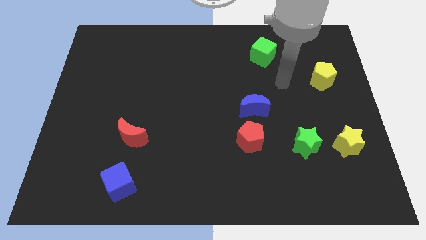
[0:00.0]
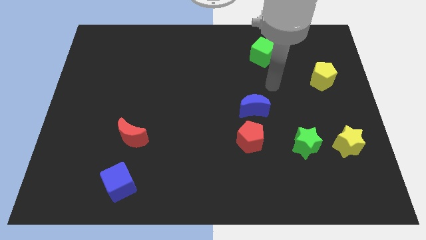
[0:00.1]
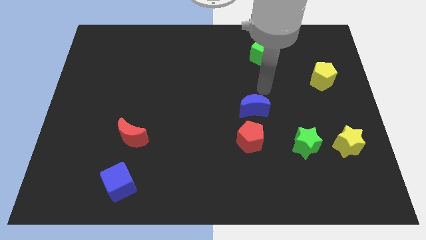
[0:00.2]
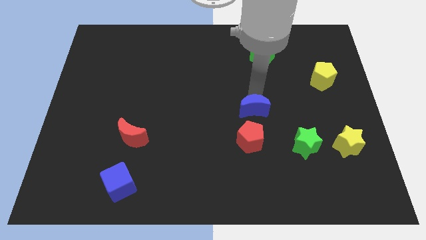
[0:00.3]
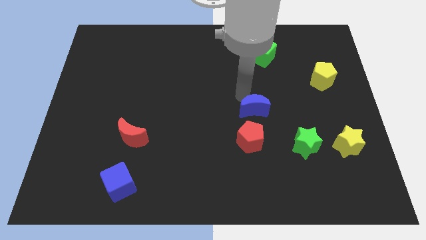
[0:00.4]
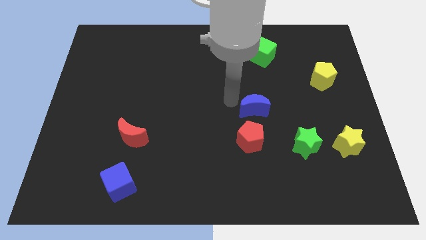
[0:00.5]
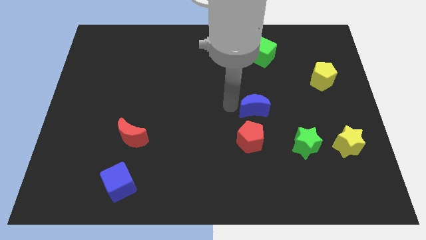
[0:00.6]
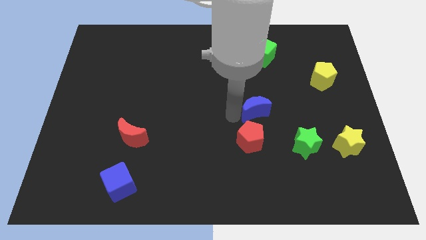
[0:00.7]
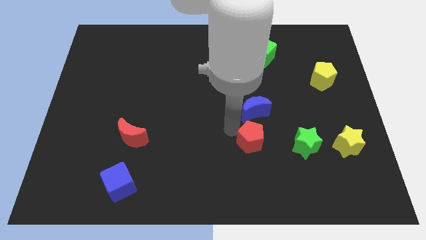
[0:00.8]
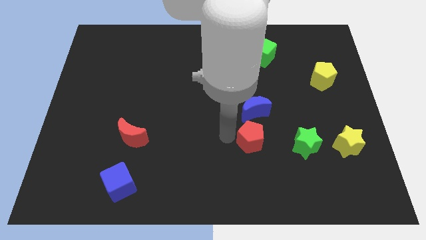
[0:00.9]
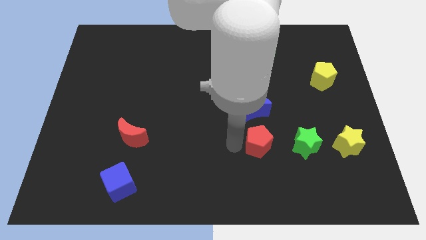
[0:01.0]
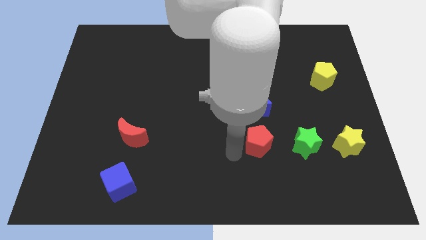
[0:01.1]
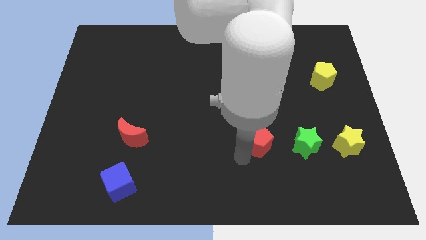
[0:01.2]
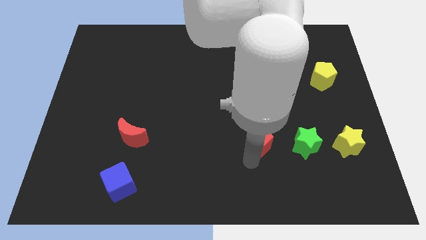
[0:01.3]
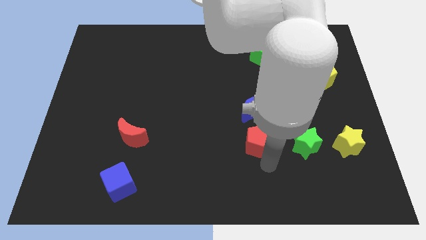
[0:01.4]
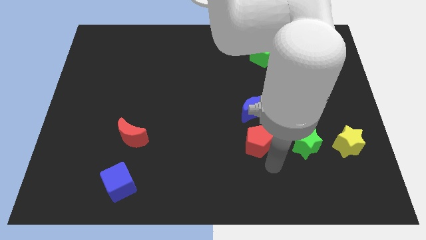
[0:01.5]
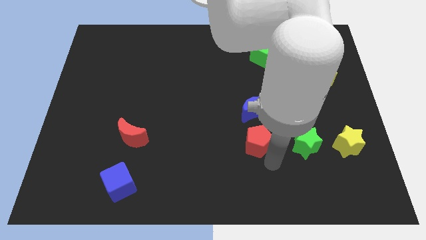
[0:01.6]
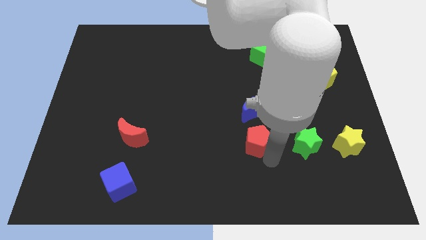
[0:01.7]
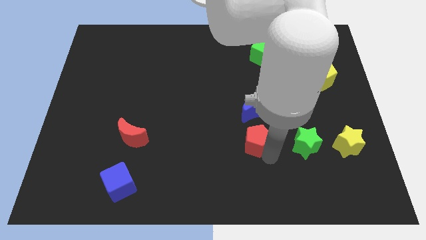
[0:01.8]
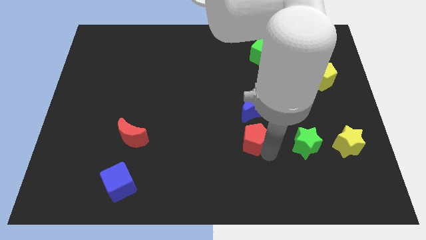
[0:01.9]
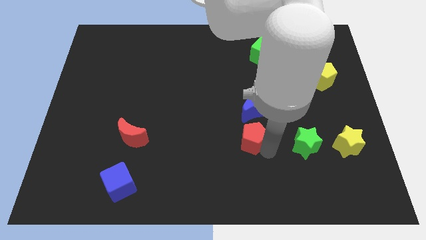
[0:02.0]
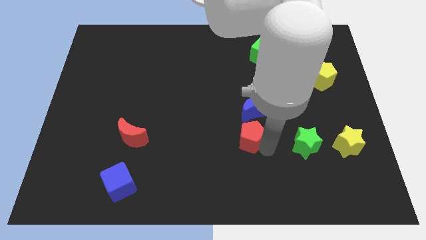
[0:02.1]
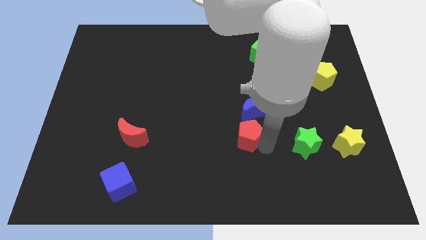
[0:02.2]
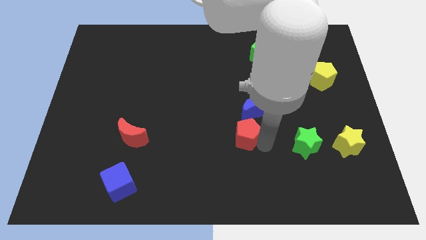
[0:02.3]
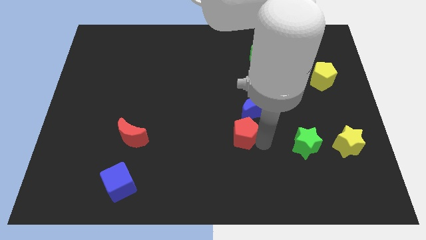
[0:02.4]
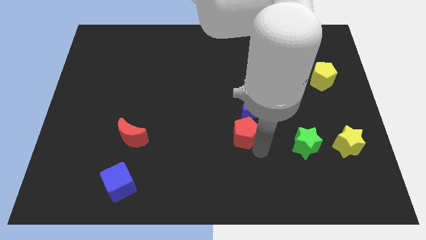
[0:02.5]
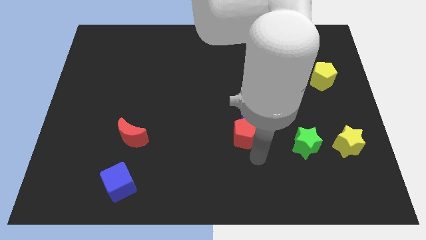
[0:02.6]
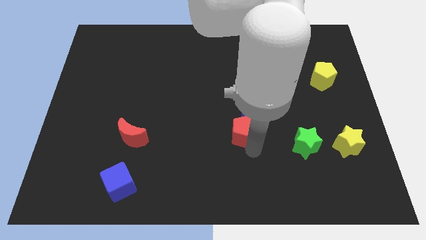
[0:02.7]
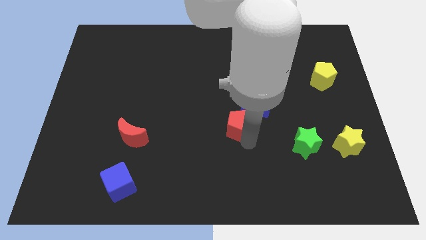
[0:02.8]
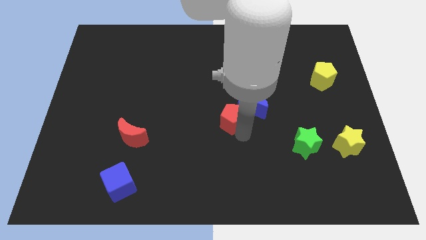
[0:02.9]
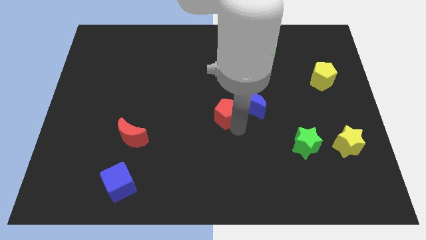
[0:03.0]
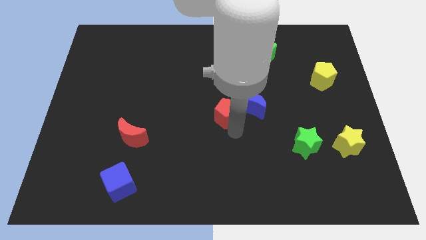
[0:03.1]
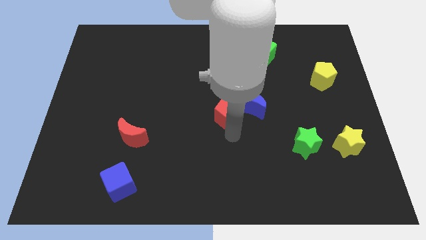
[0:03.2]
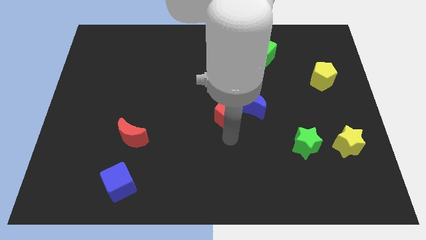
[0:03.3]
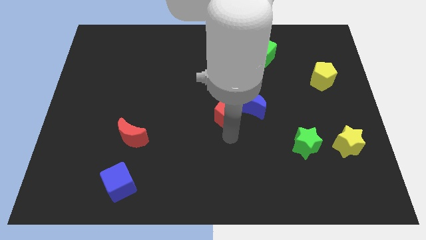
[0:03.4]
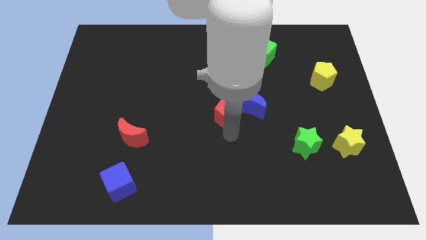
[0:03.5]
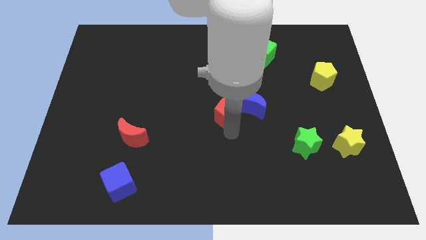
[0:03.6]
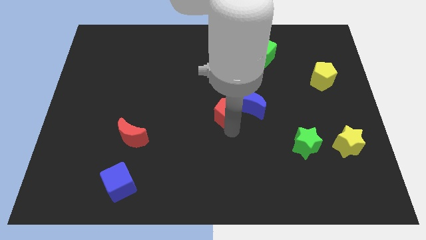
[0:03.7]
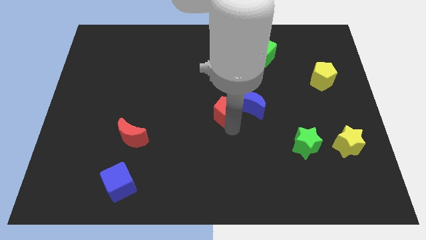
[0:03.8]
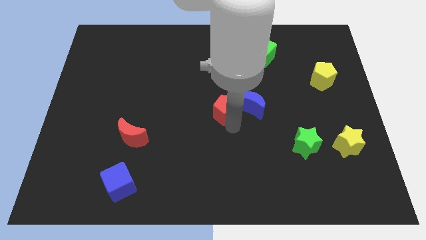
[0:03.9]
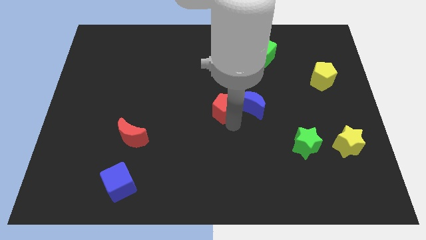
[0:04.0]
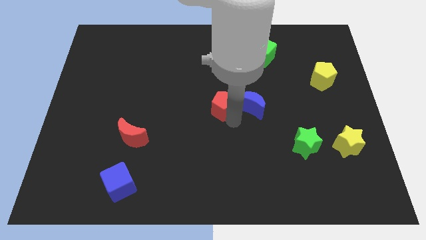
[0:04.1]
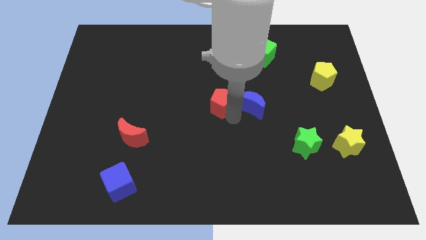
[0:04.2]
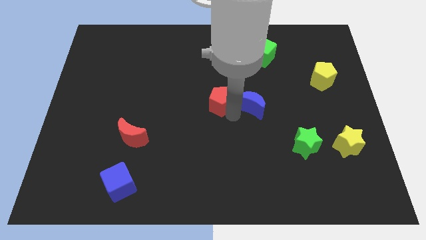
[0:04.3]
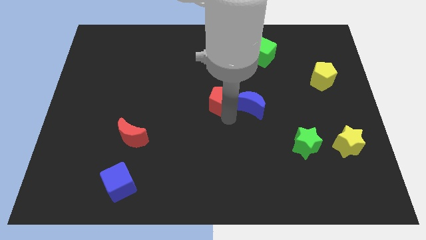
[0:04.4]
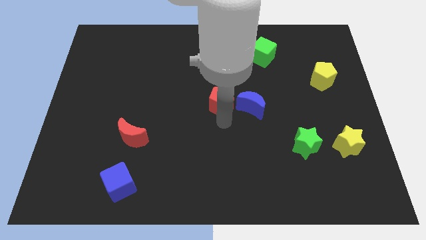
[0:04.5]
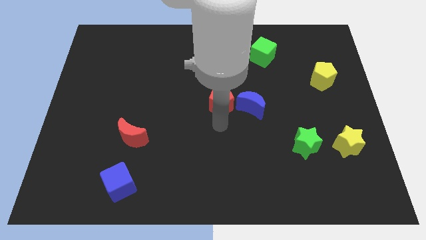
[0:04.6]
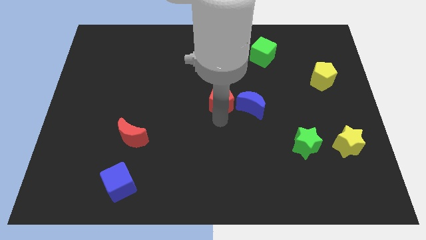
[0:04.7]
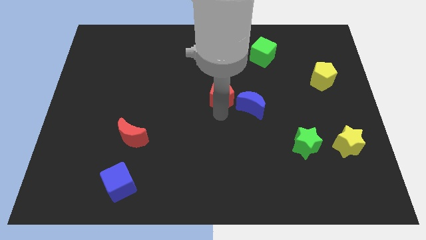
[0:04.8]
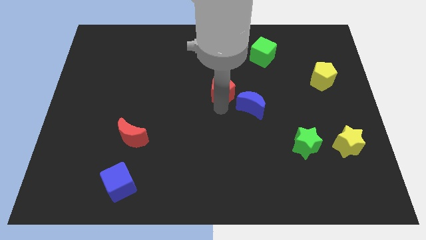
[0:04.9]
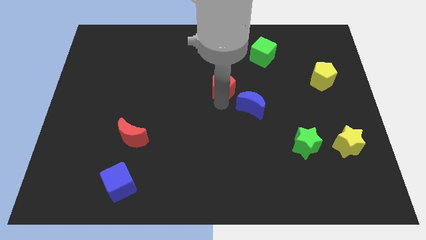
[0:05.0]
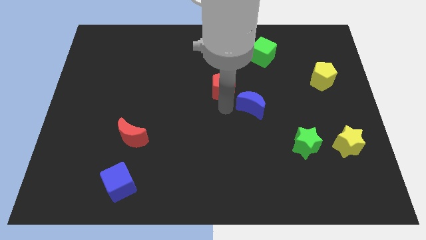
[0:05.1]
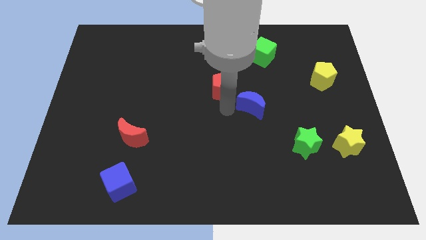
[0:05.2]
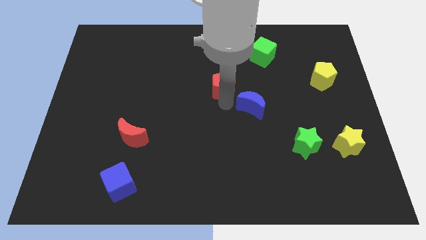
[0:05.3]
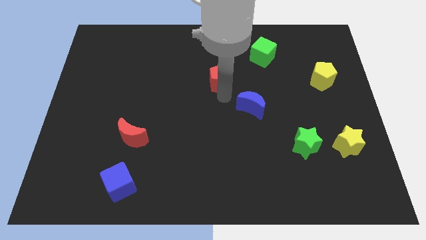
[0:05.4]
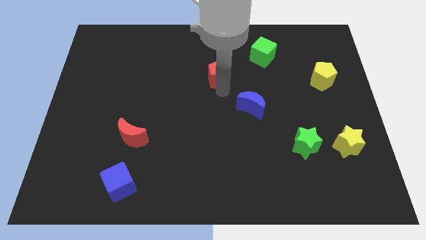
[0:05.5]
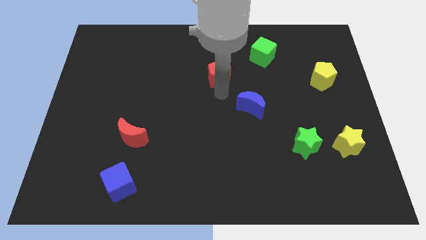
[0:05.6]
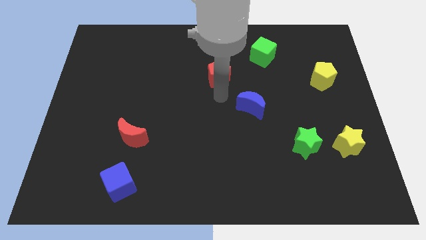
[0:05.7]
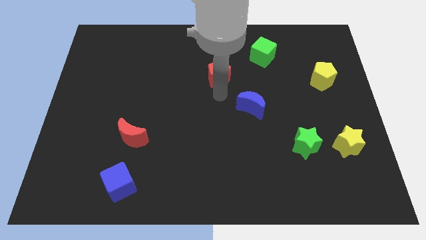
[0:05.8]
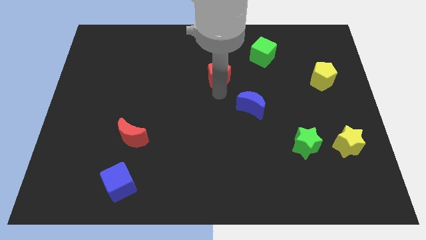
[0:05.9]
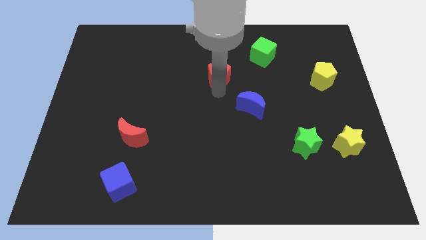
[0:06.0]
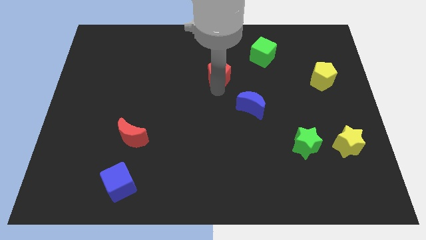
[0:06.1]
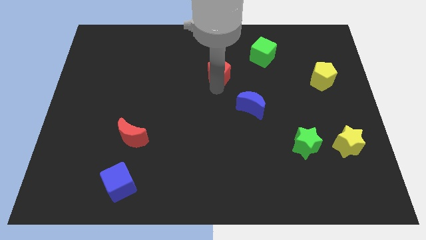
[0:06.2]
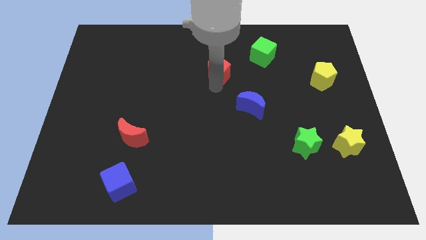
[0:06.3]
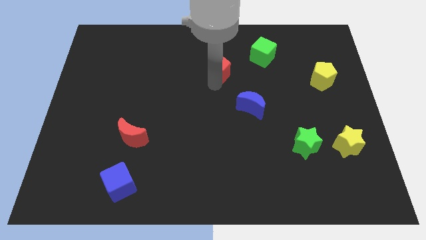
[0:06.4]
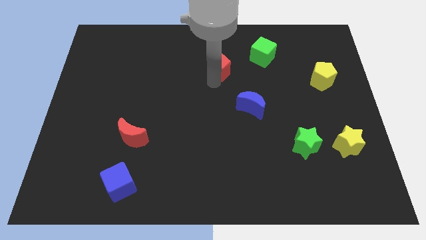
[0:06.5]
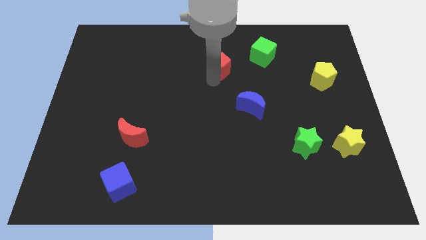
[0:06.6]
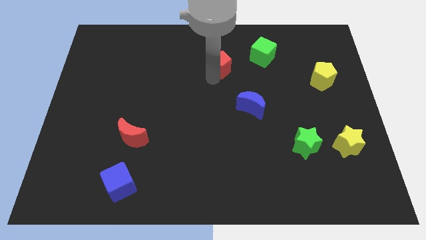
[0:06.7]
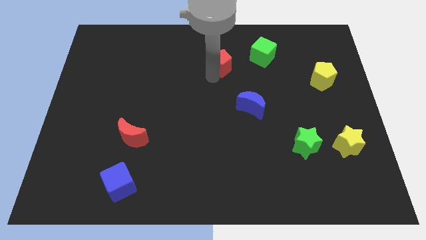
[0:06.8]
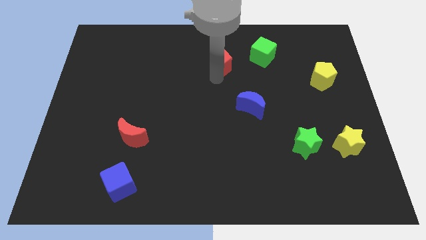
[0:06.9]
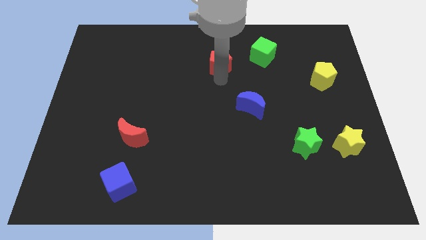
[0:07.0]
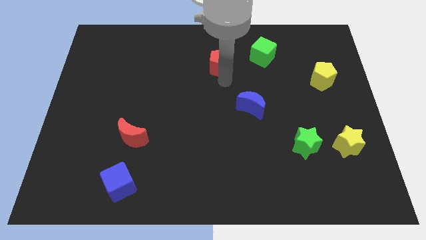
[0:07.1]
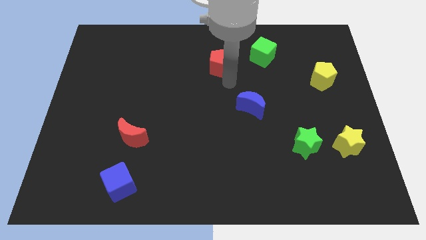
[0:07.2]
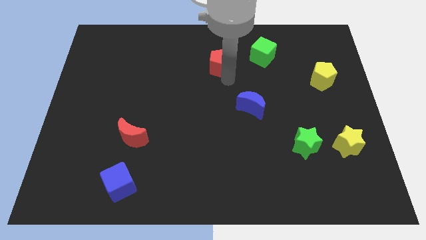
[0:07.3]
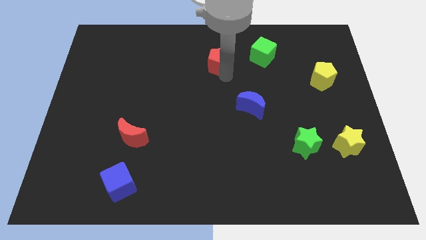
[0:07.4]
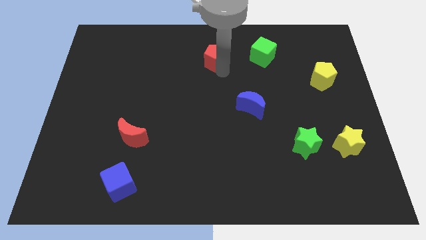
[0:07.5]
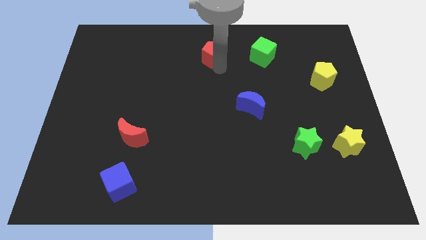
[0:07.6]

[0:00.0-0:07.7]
push the red pentagon to the top side
